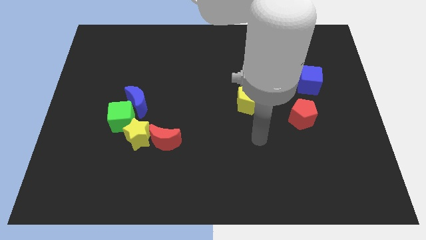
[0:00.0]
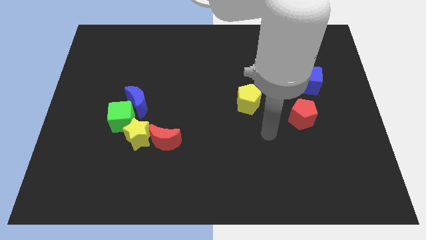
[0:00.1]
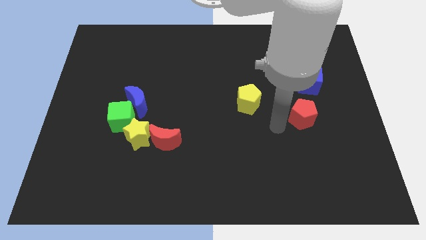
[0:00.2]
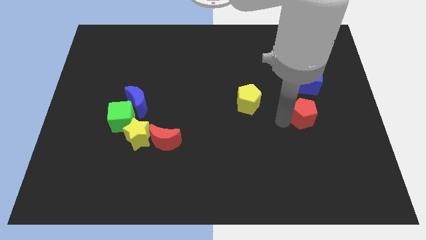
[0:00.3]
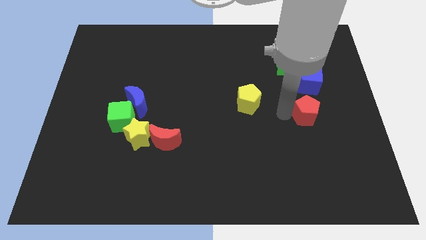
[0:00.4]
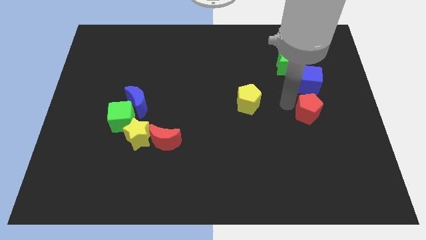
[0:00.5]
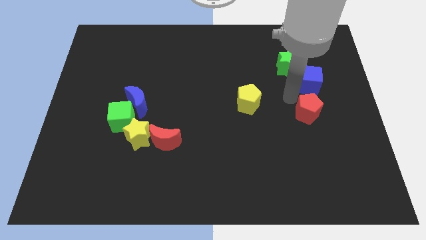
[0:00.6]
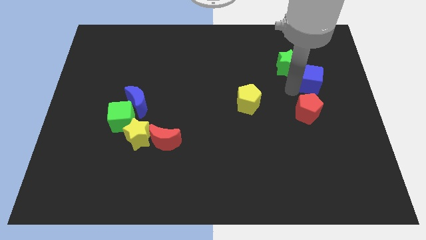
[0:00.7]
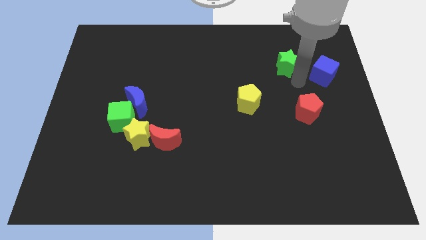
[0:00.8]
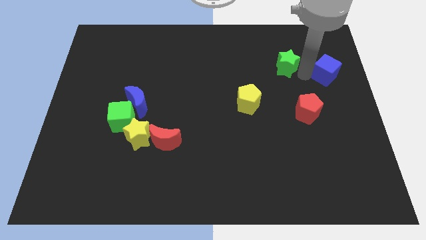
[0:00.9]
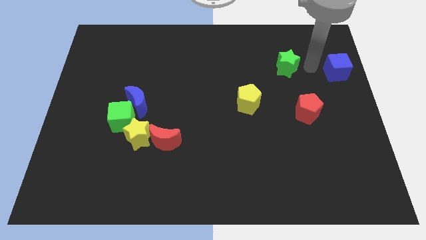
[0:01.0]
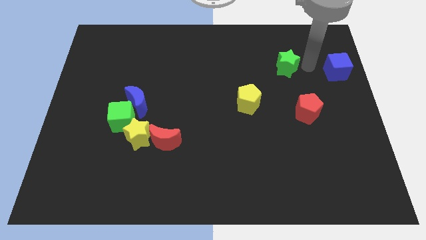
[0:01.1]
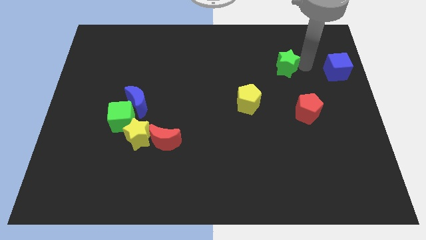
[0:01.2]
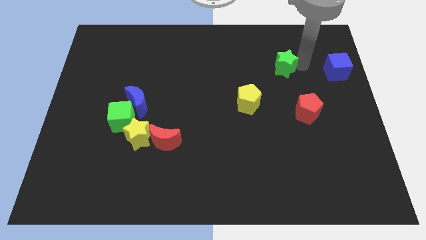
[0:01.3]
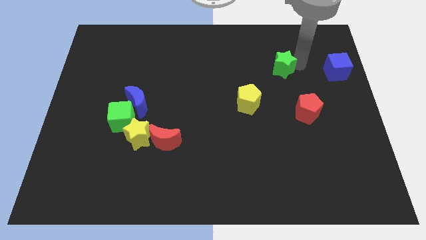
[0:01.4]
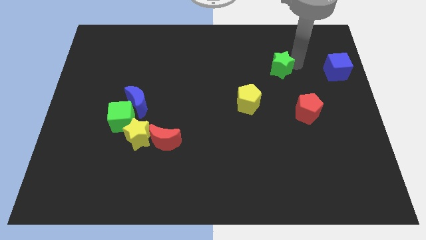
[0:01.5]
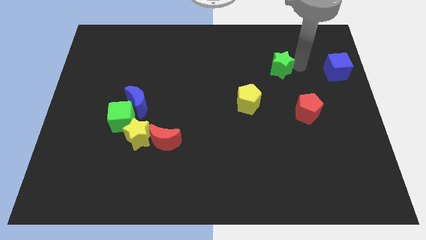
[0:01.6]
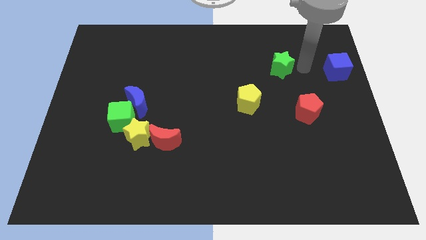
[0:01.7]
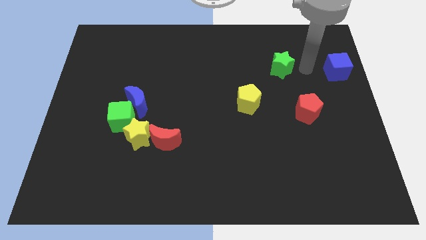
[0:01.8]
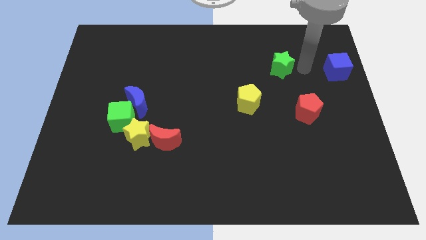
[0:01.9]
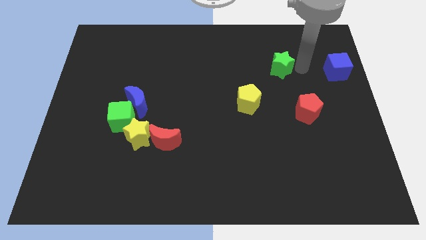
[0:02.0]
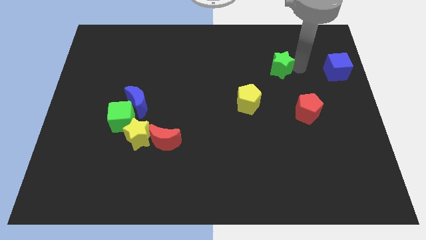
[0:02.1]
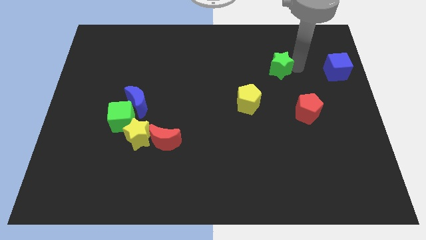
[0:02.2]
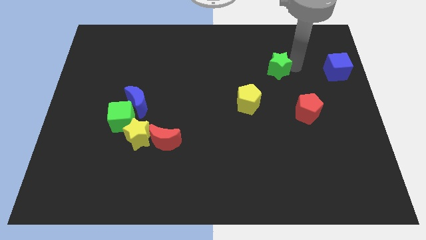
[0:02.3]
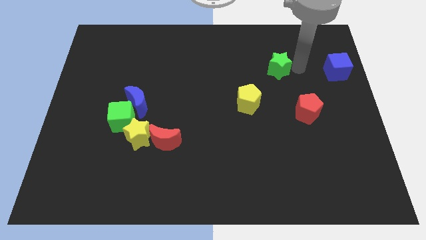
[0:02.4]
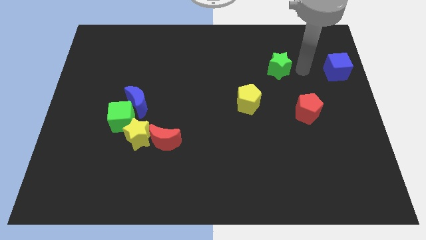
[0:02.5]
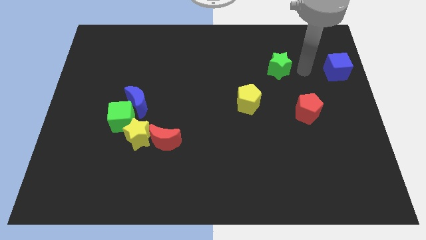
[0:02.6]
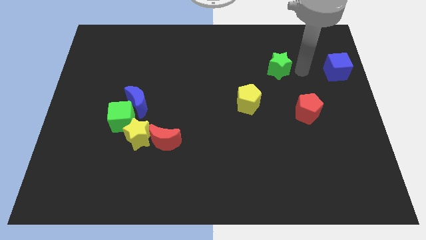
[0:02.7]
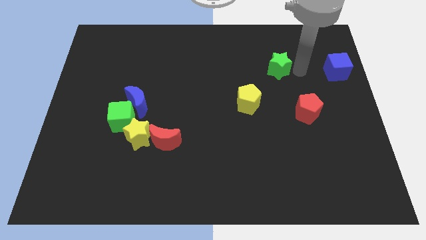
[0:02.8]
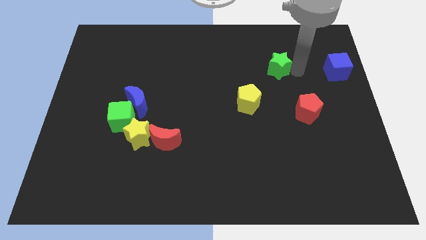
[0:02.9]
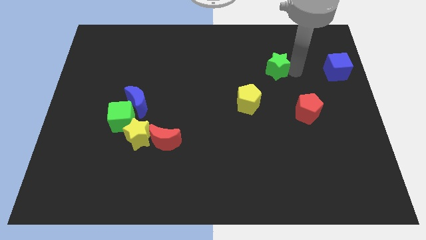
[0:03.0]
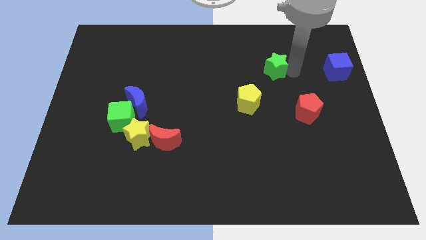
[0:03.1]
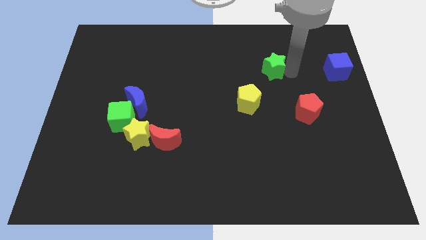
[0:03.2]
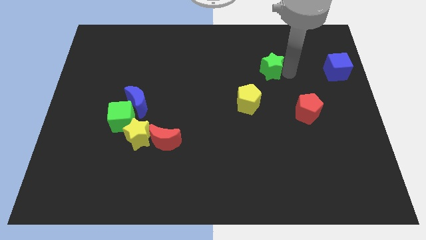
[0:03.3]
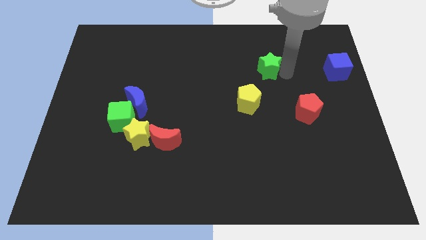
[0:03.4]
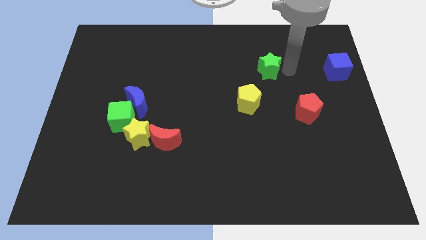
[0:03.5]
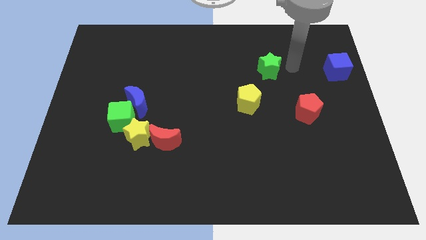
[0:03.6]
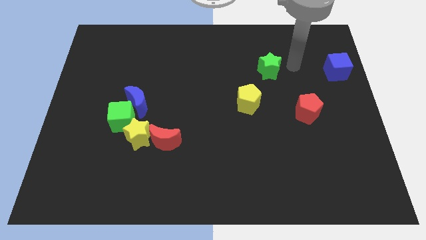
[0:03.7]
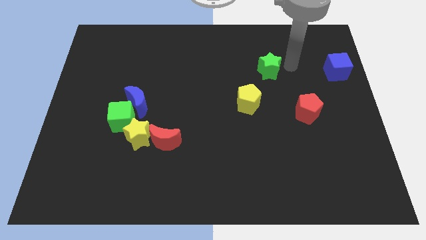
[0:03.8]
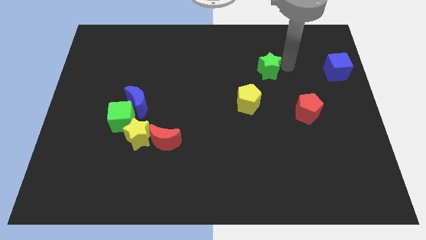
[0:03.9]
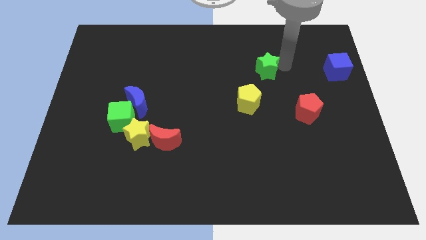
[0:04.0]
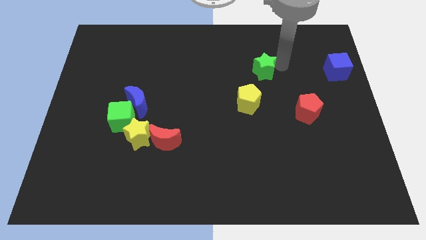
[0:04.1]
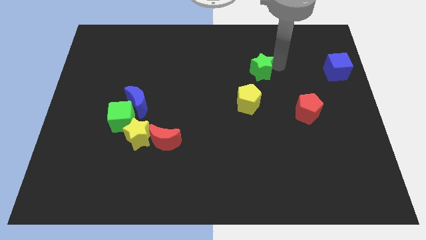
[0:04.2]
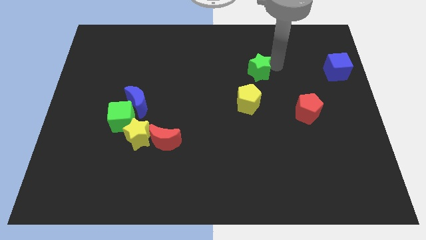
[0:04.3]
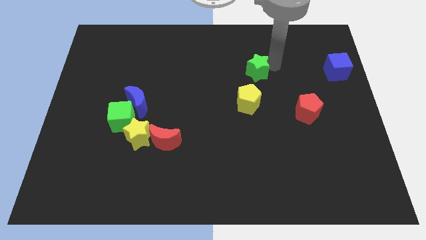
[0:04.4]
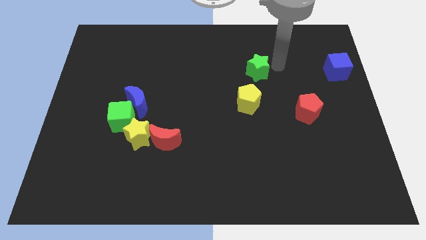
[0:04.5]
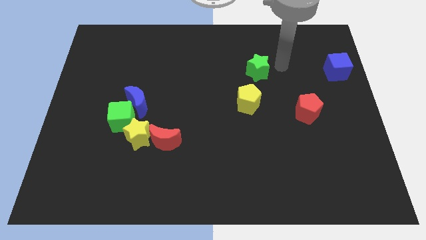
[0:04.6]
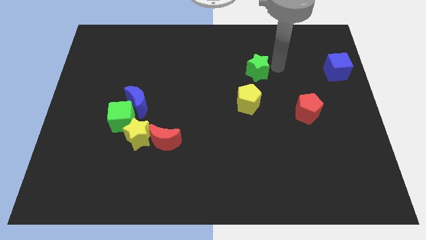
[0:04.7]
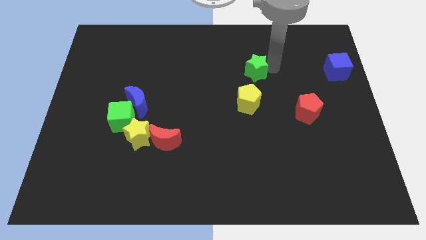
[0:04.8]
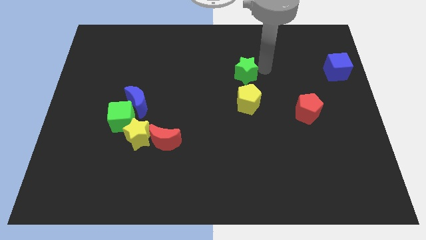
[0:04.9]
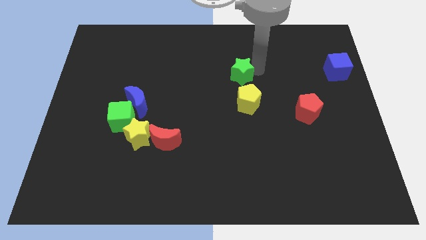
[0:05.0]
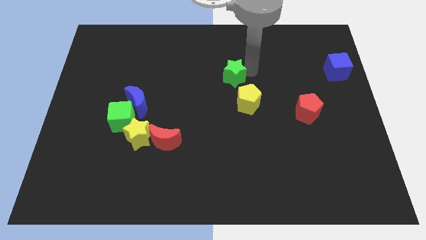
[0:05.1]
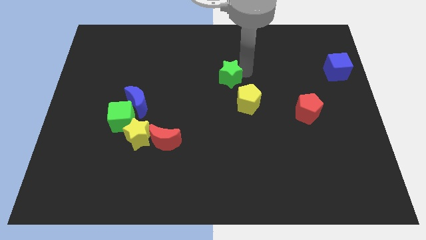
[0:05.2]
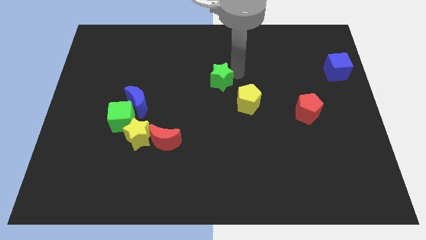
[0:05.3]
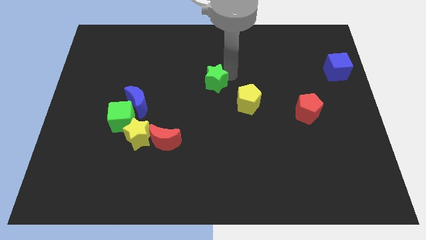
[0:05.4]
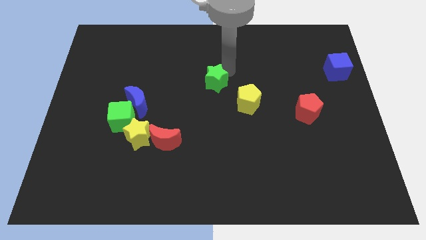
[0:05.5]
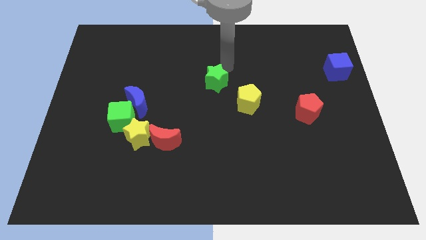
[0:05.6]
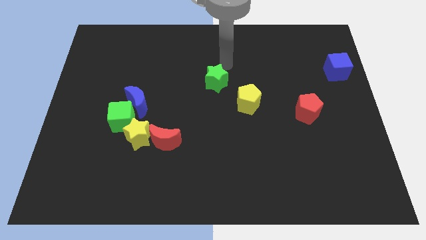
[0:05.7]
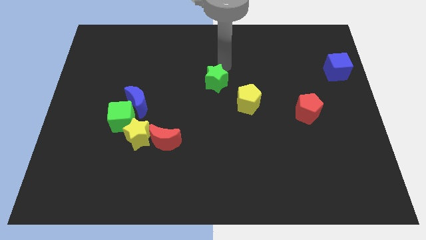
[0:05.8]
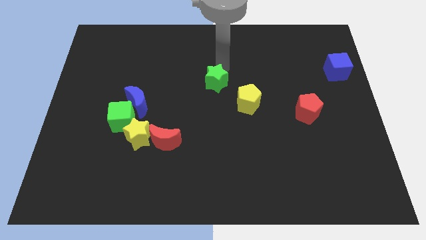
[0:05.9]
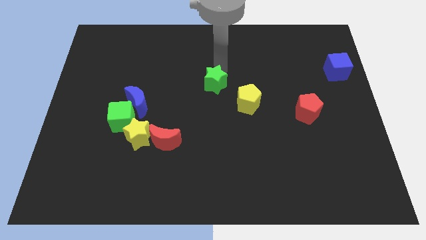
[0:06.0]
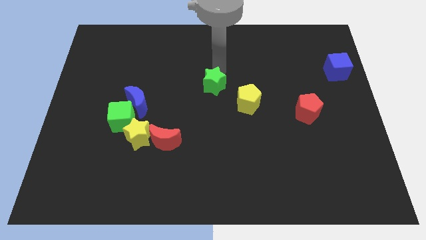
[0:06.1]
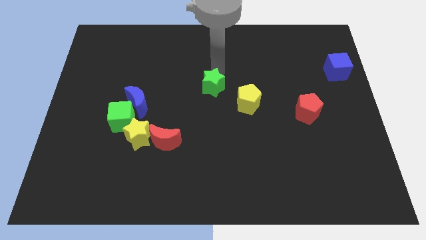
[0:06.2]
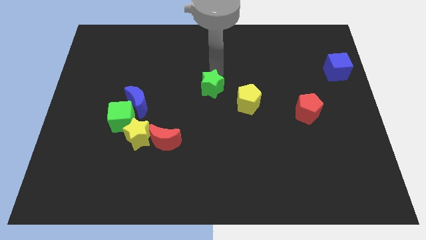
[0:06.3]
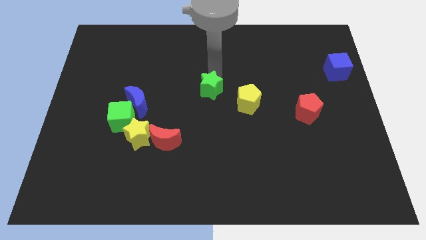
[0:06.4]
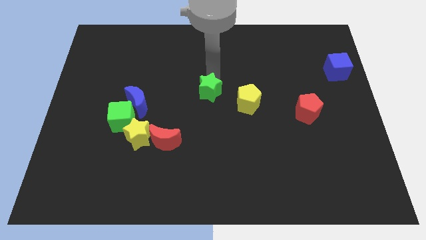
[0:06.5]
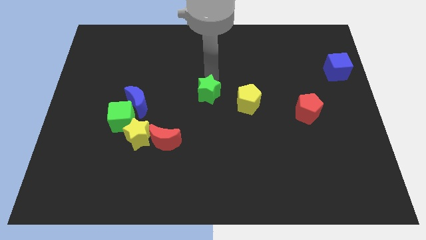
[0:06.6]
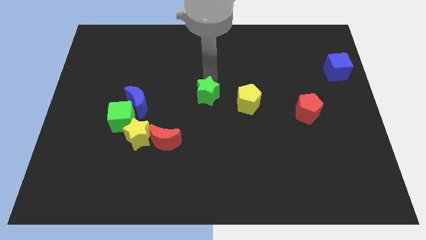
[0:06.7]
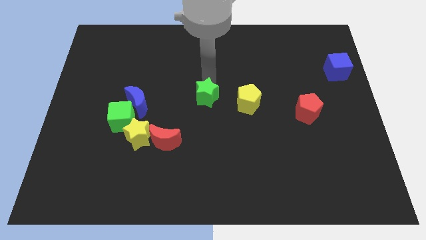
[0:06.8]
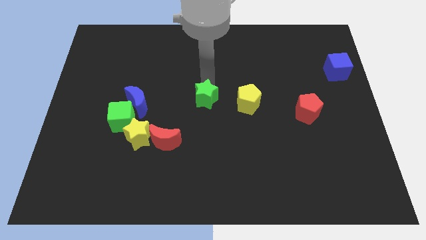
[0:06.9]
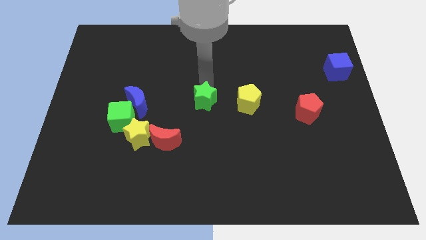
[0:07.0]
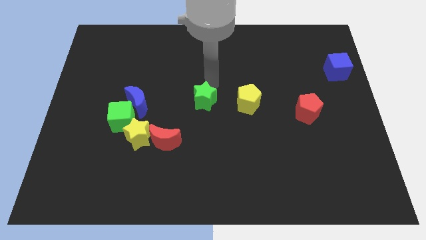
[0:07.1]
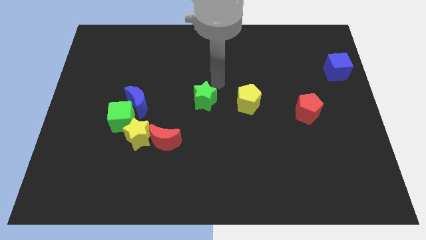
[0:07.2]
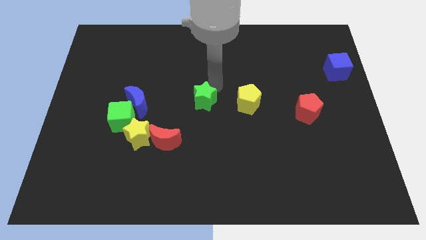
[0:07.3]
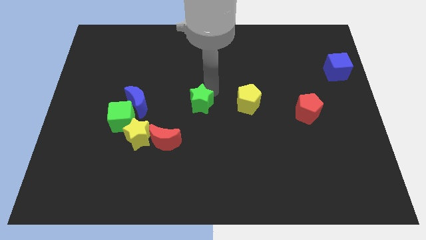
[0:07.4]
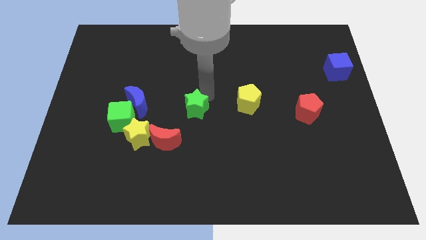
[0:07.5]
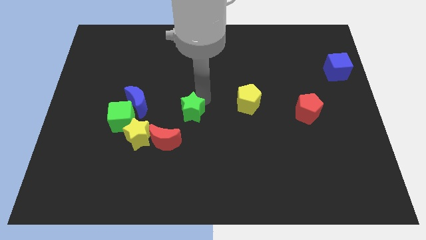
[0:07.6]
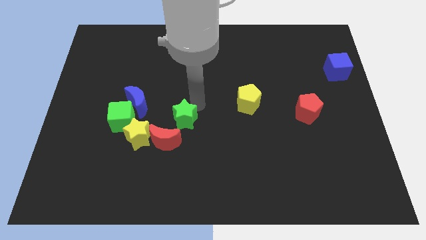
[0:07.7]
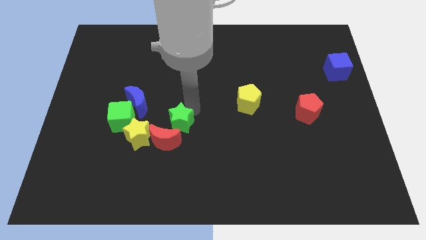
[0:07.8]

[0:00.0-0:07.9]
slide the green star next to the red moon
